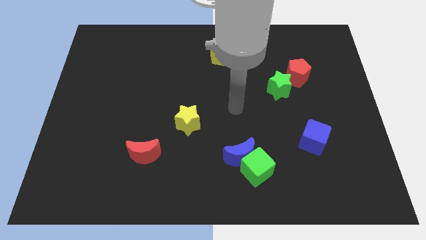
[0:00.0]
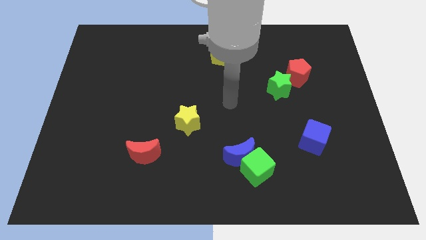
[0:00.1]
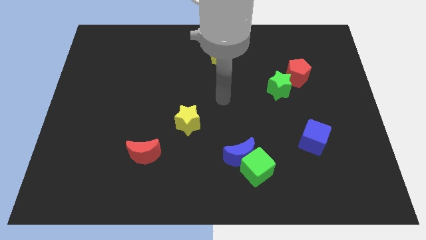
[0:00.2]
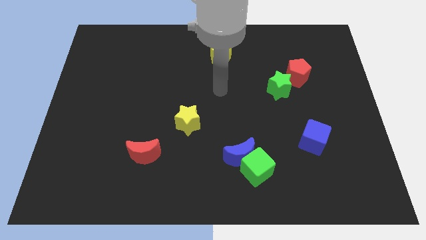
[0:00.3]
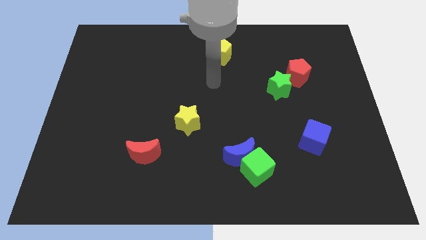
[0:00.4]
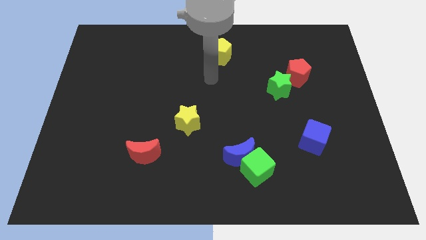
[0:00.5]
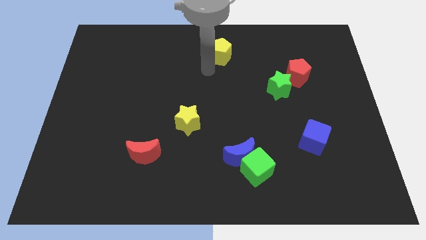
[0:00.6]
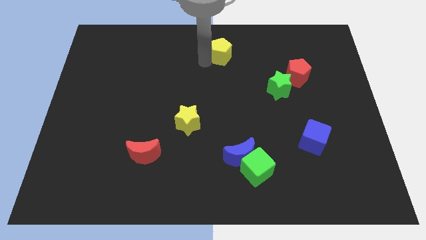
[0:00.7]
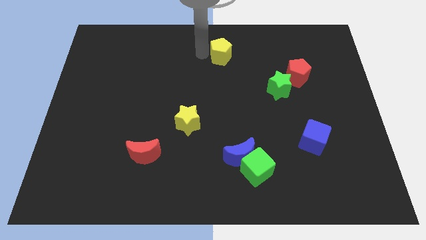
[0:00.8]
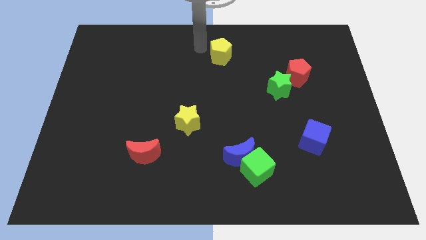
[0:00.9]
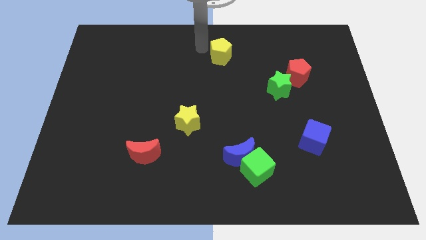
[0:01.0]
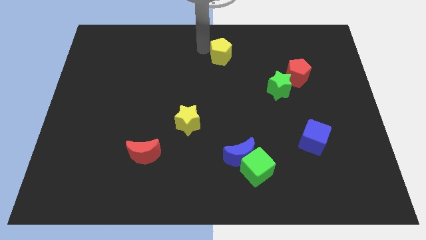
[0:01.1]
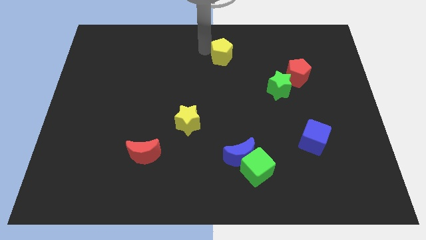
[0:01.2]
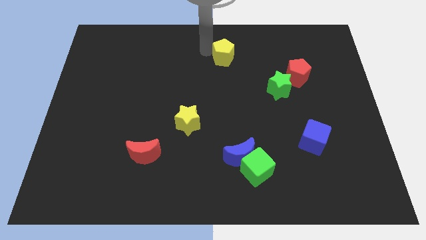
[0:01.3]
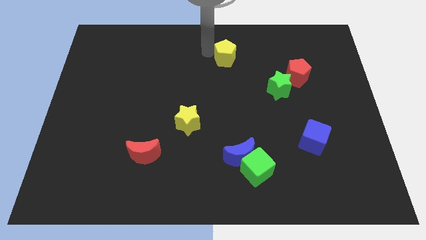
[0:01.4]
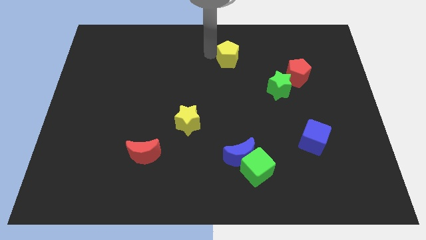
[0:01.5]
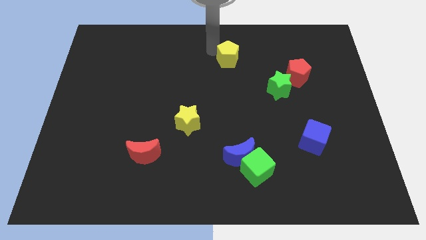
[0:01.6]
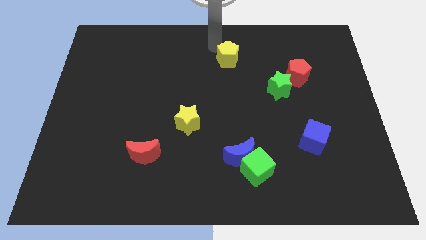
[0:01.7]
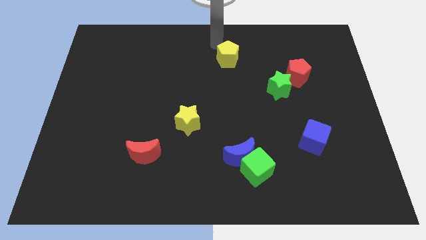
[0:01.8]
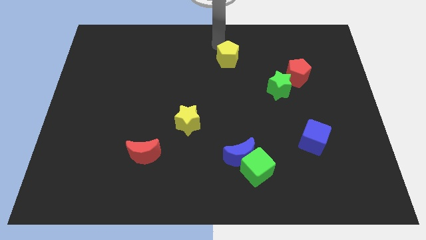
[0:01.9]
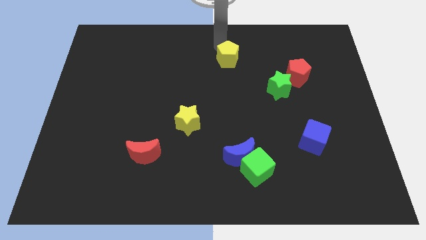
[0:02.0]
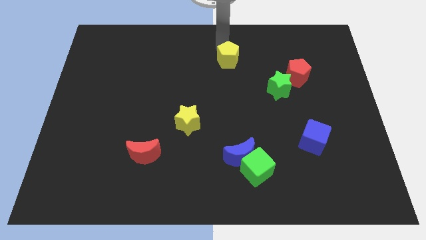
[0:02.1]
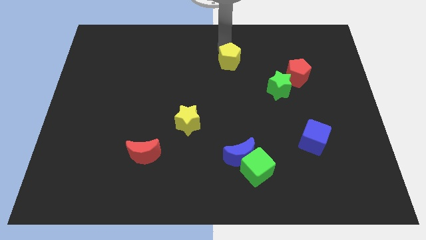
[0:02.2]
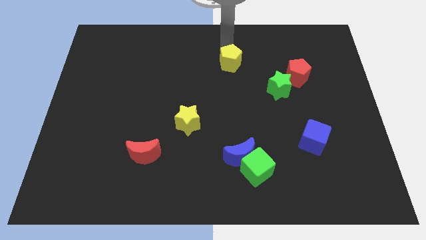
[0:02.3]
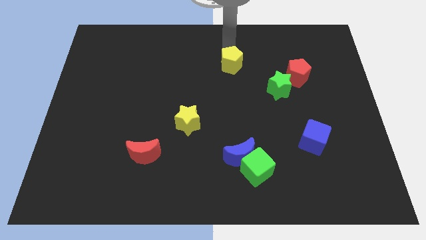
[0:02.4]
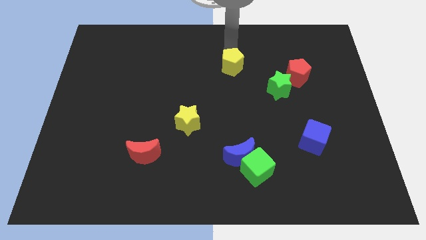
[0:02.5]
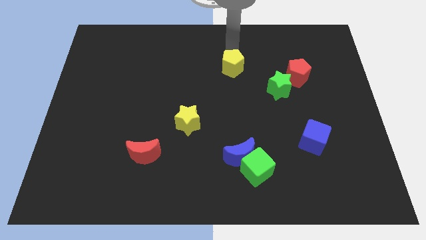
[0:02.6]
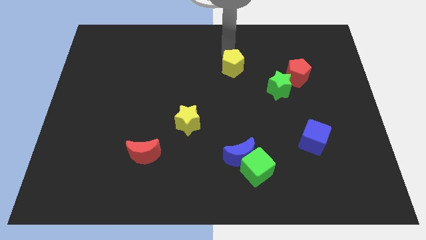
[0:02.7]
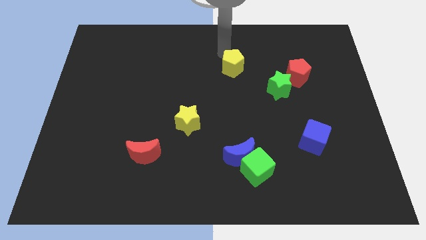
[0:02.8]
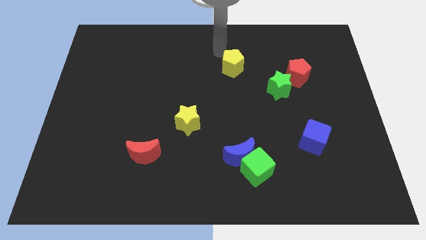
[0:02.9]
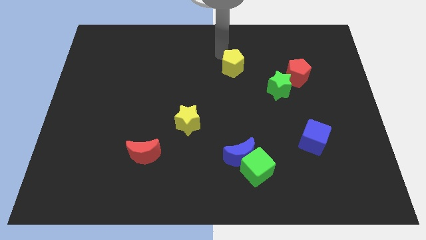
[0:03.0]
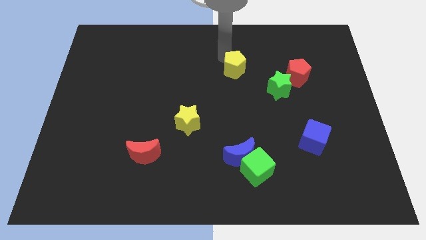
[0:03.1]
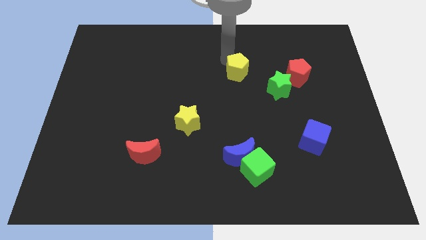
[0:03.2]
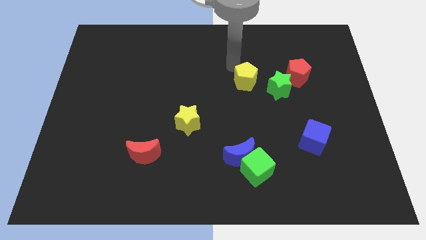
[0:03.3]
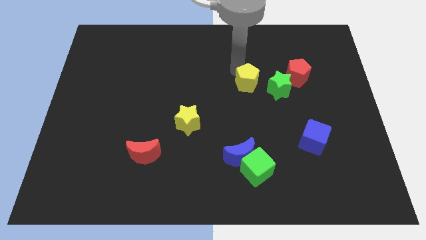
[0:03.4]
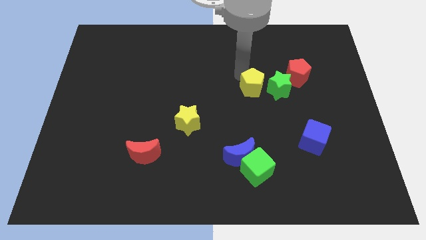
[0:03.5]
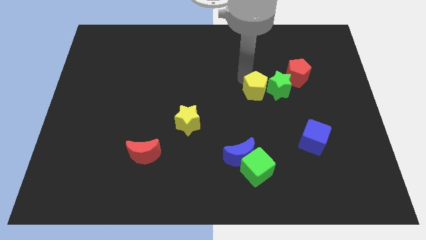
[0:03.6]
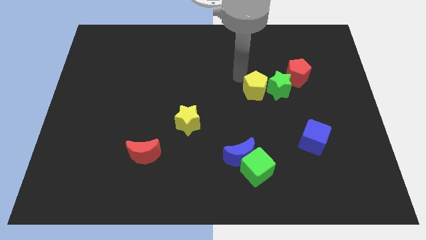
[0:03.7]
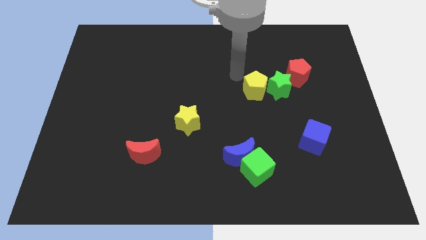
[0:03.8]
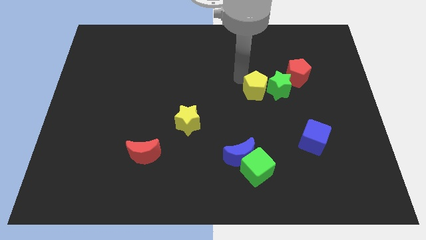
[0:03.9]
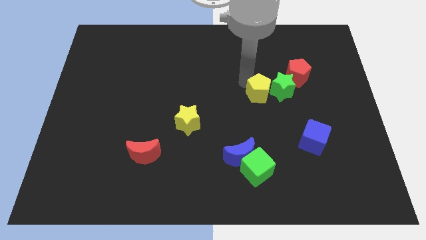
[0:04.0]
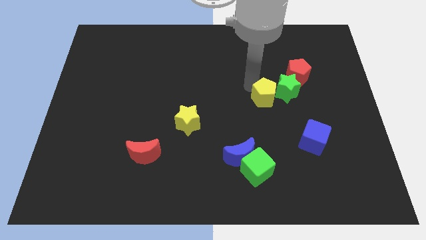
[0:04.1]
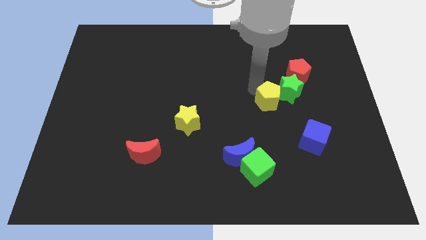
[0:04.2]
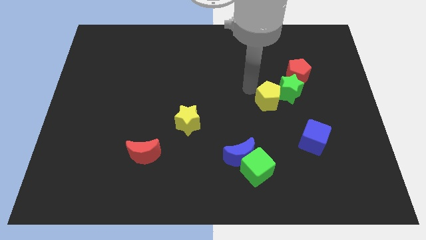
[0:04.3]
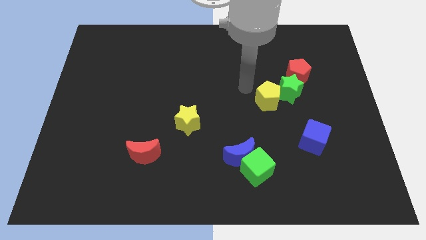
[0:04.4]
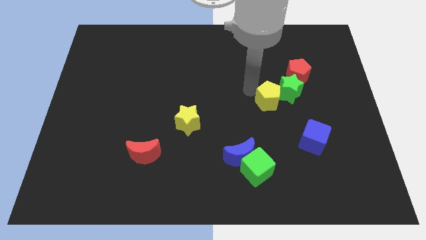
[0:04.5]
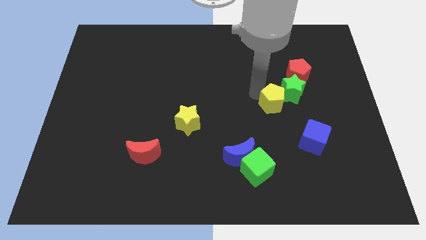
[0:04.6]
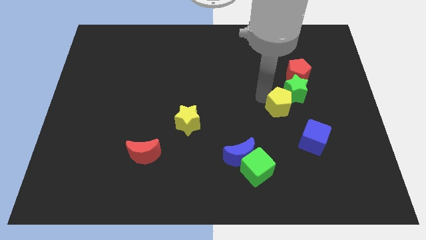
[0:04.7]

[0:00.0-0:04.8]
push the yellow pentagon diagonally downwards and to the right

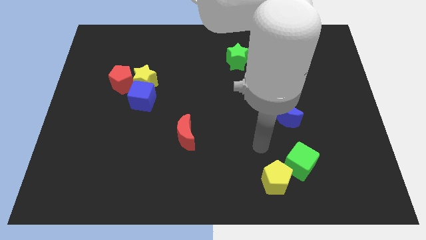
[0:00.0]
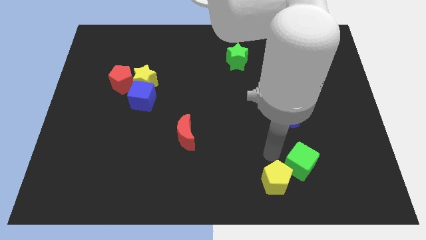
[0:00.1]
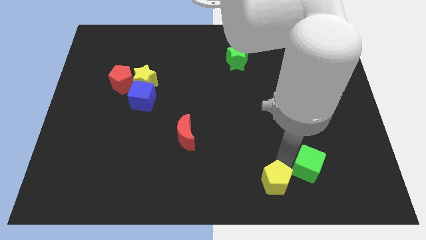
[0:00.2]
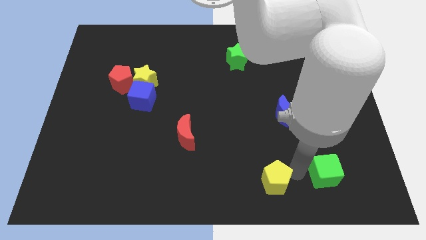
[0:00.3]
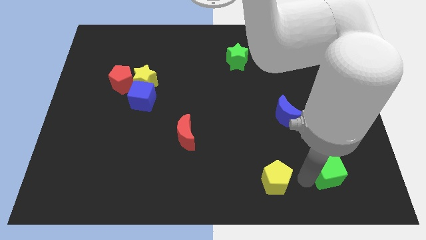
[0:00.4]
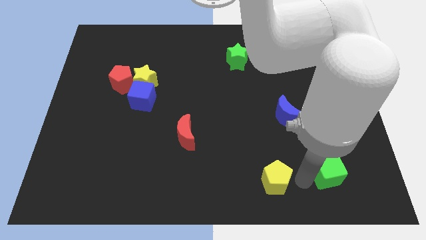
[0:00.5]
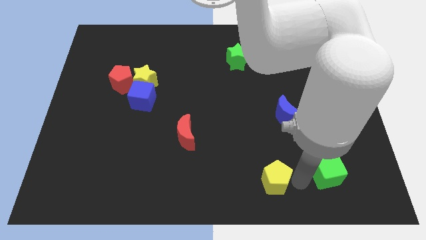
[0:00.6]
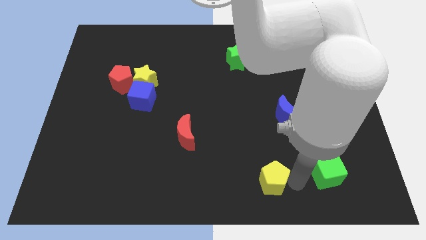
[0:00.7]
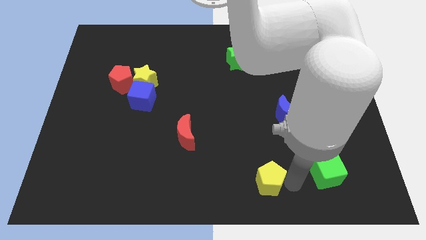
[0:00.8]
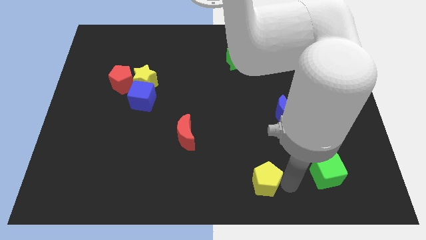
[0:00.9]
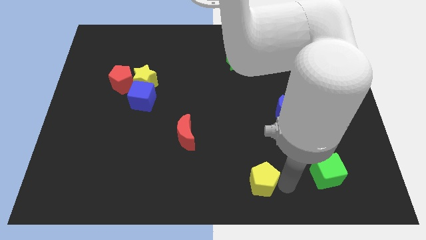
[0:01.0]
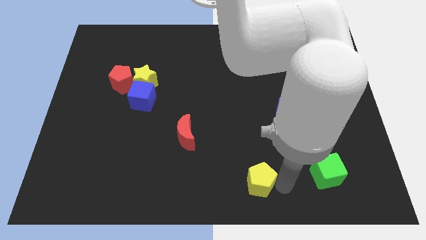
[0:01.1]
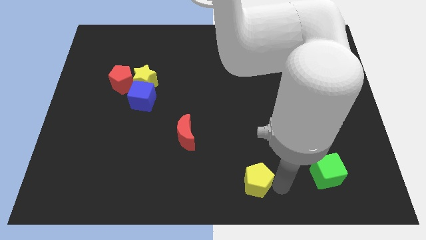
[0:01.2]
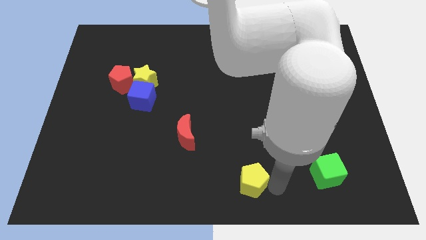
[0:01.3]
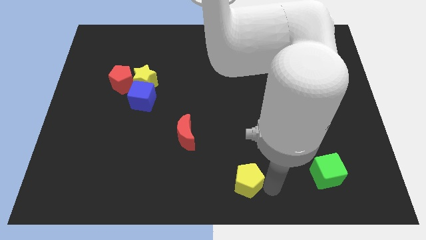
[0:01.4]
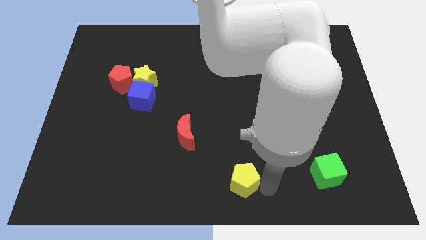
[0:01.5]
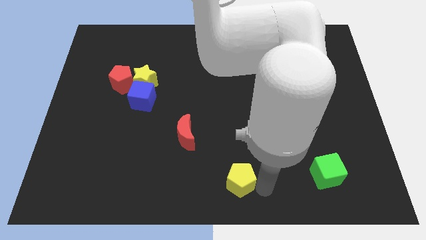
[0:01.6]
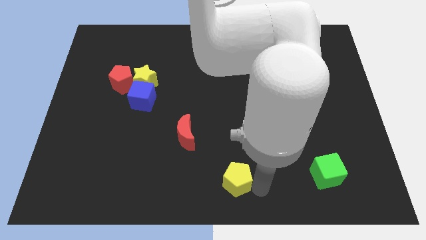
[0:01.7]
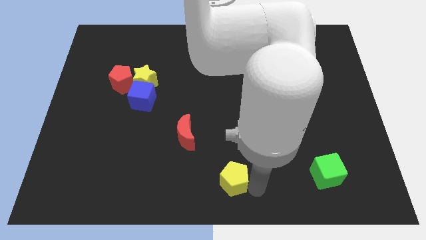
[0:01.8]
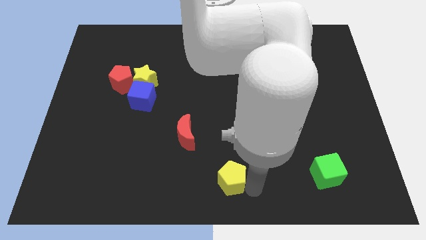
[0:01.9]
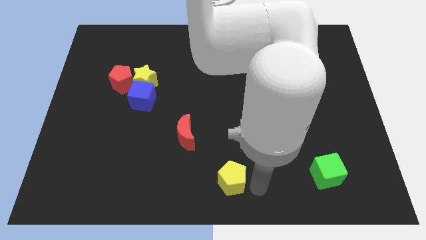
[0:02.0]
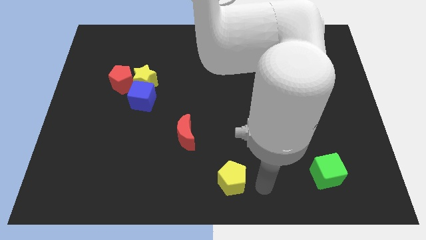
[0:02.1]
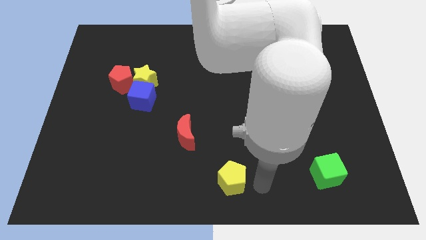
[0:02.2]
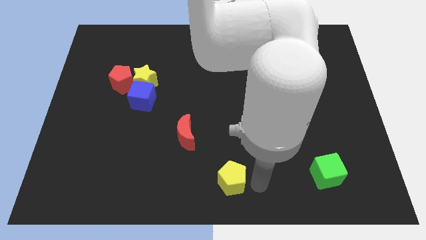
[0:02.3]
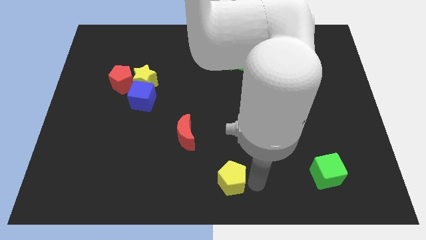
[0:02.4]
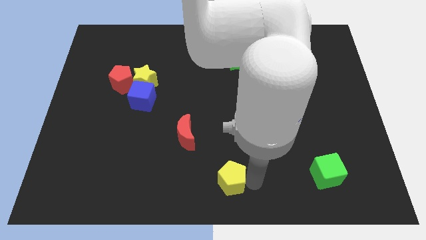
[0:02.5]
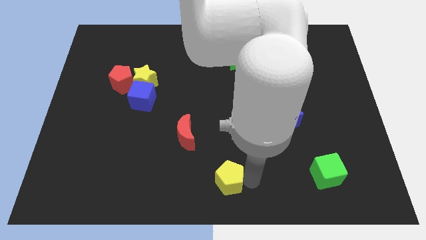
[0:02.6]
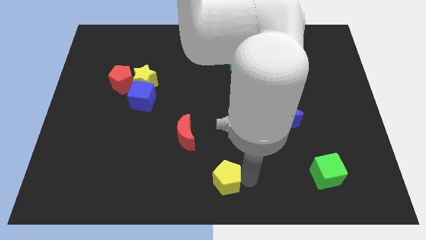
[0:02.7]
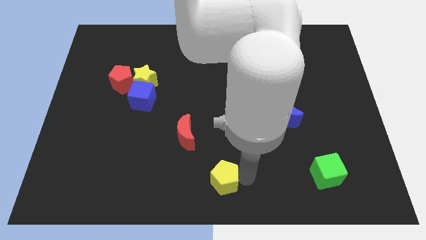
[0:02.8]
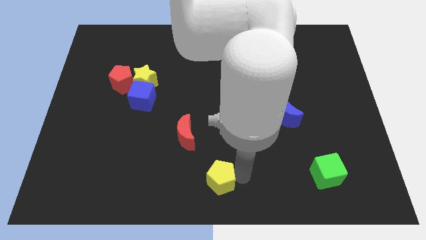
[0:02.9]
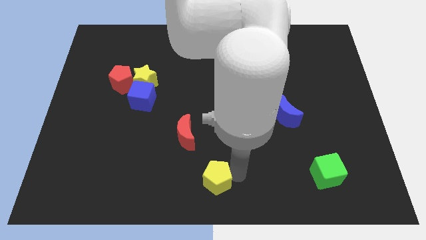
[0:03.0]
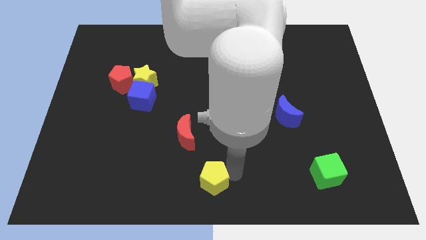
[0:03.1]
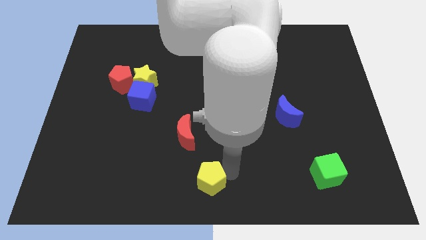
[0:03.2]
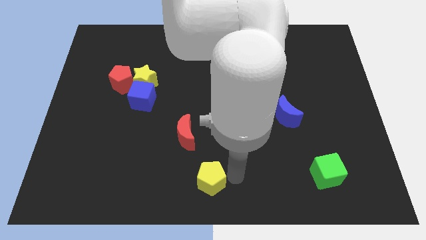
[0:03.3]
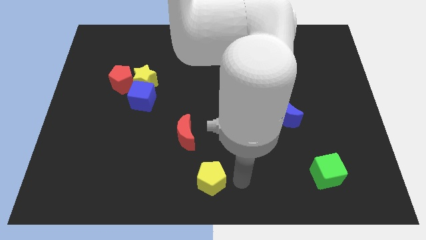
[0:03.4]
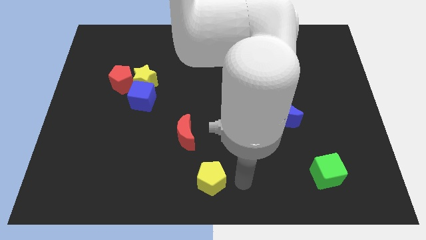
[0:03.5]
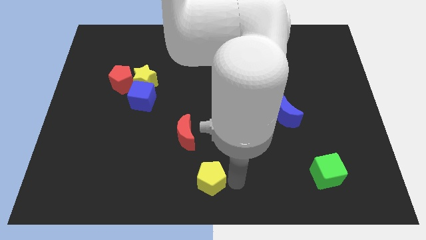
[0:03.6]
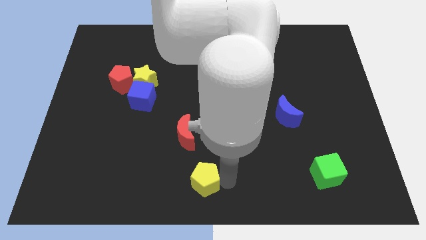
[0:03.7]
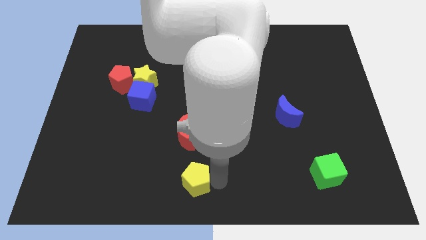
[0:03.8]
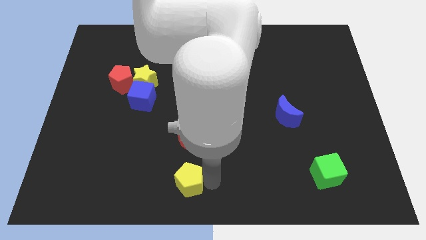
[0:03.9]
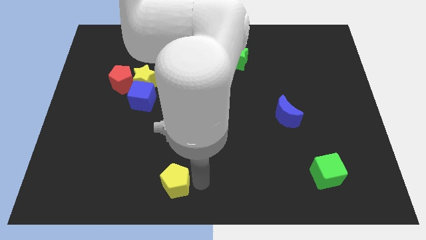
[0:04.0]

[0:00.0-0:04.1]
push the yellow pentagon to the left
